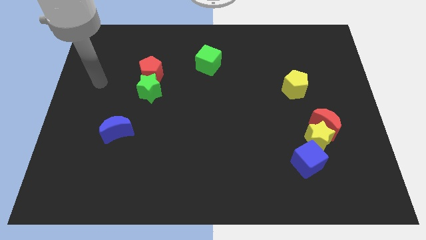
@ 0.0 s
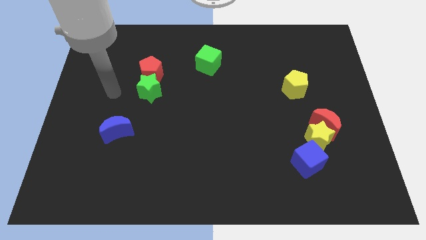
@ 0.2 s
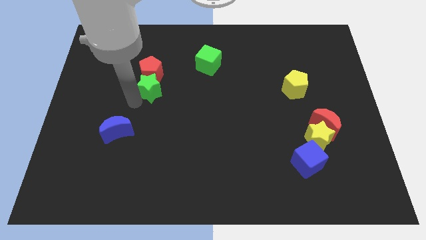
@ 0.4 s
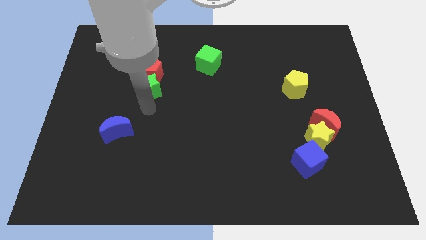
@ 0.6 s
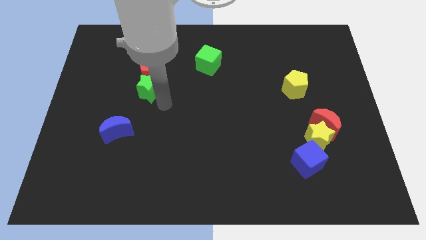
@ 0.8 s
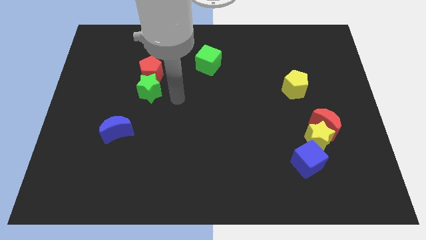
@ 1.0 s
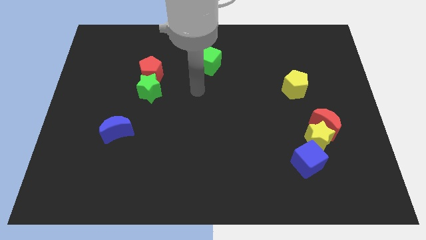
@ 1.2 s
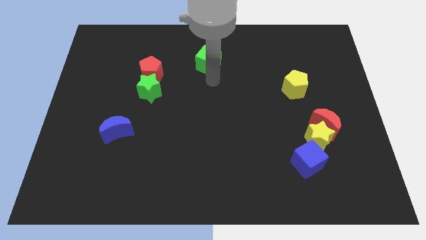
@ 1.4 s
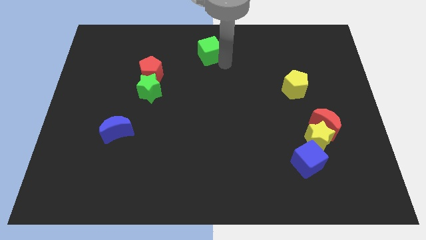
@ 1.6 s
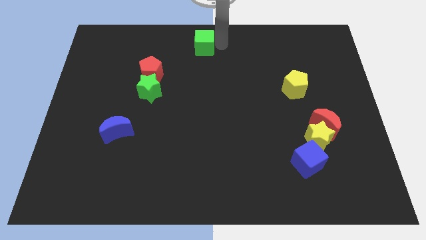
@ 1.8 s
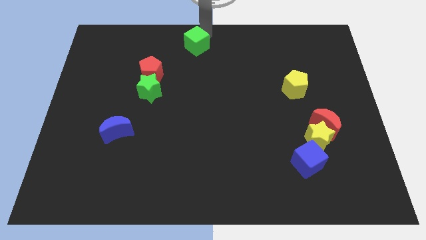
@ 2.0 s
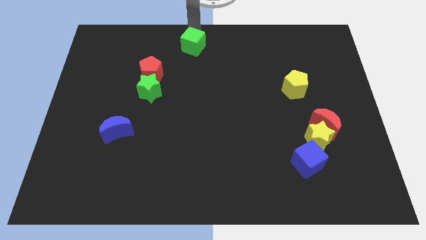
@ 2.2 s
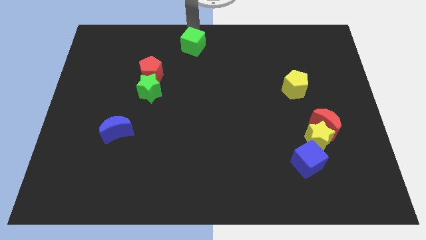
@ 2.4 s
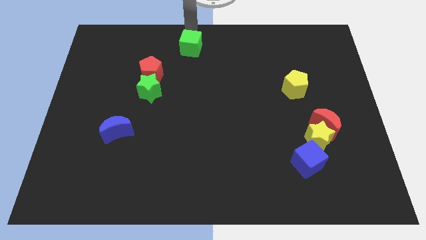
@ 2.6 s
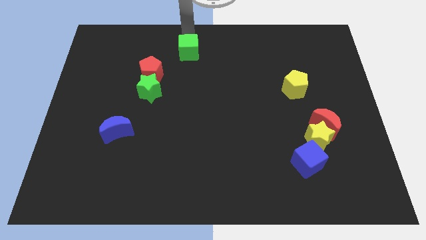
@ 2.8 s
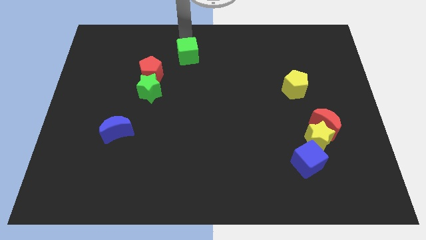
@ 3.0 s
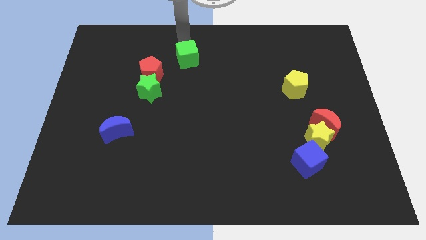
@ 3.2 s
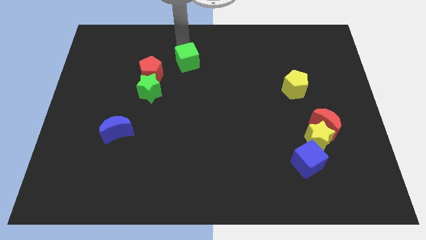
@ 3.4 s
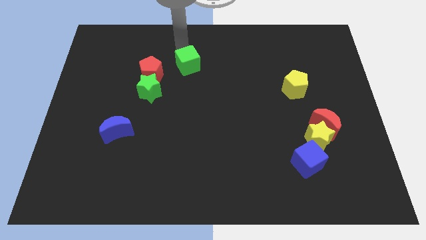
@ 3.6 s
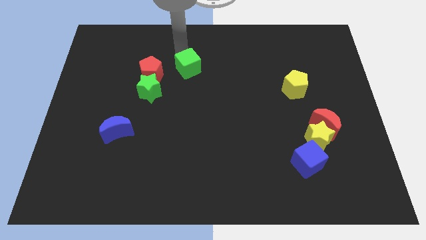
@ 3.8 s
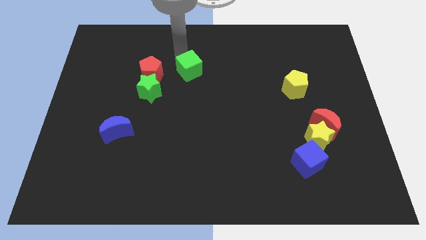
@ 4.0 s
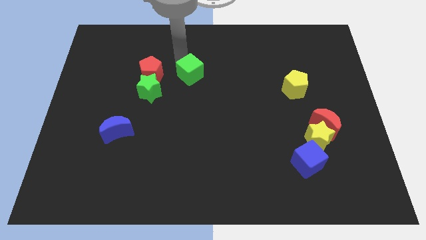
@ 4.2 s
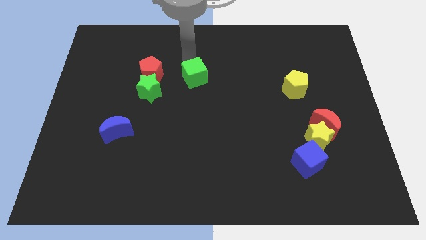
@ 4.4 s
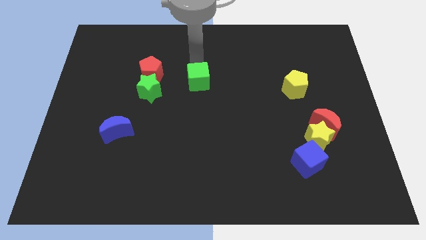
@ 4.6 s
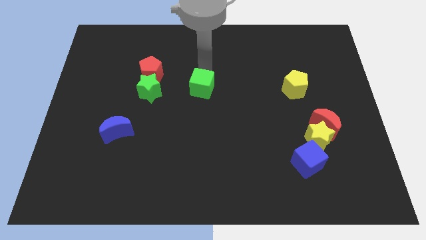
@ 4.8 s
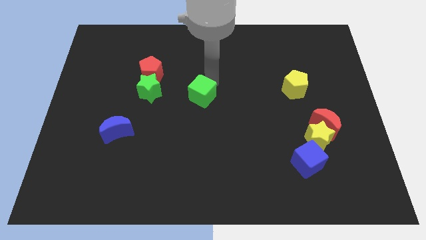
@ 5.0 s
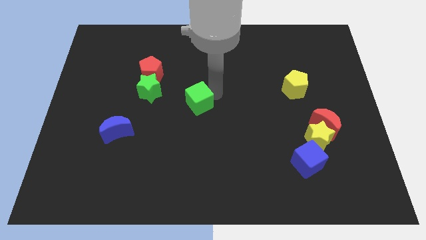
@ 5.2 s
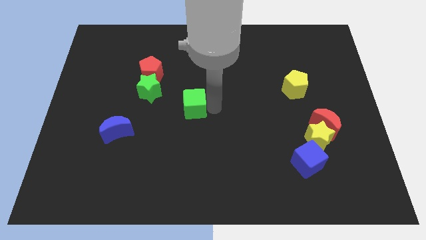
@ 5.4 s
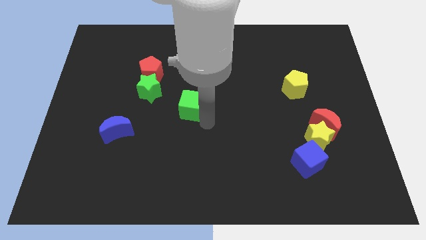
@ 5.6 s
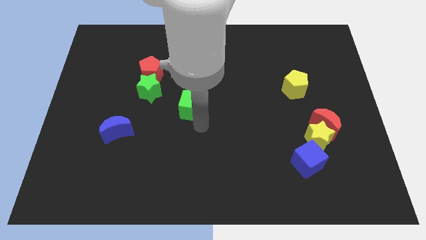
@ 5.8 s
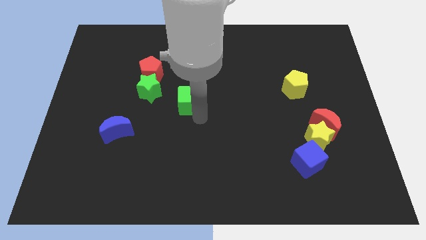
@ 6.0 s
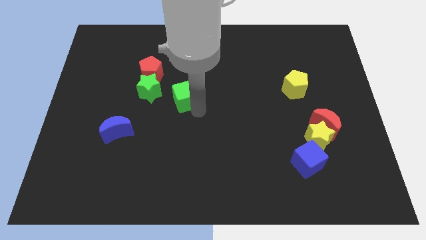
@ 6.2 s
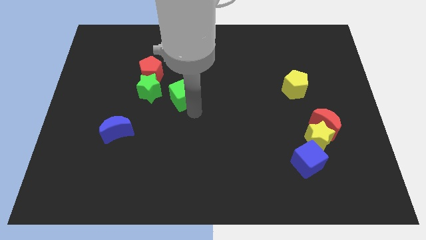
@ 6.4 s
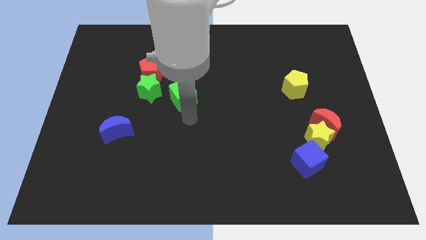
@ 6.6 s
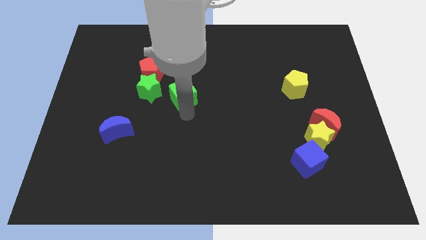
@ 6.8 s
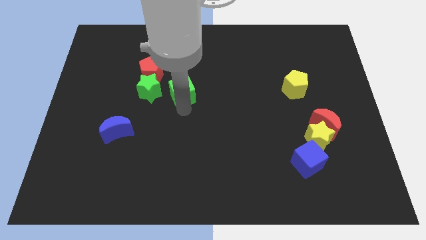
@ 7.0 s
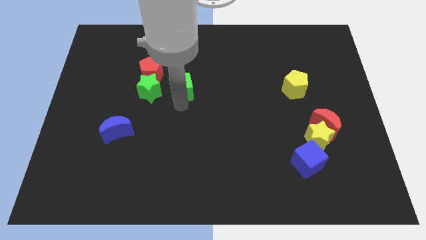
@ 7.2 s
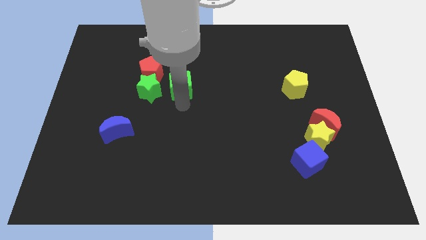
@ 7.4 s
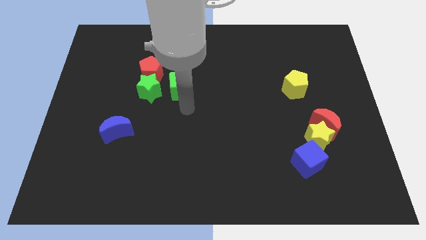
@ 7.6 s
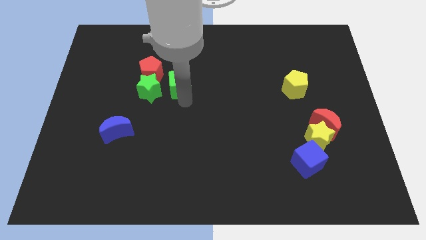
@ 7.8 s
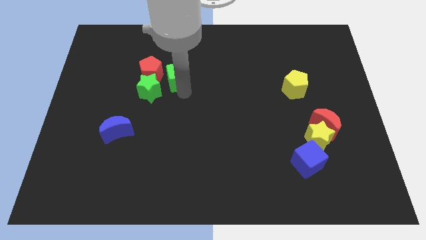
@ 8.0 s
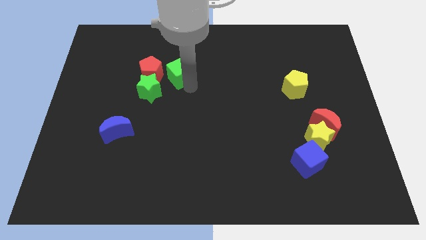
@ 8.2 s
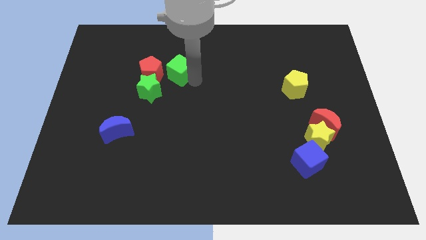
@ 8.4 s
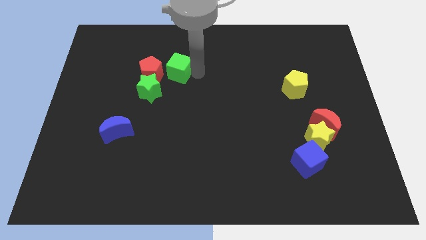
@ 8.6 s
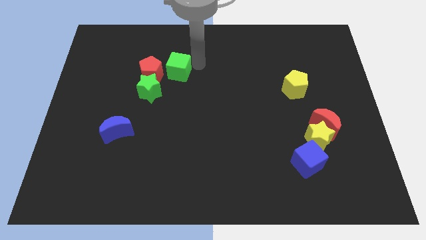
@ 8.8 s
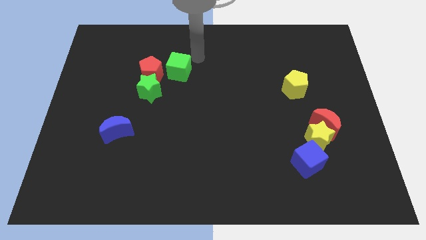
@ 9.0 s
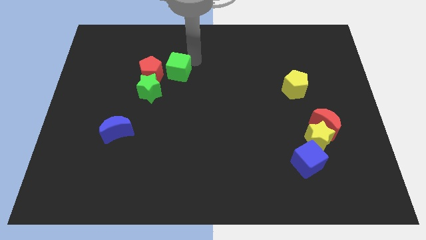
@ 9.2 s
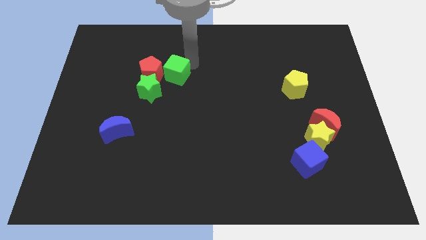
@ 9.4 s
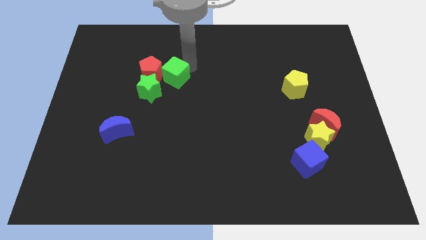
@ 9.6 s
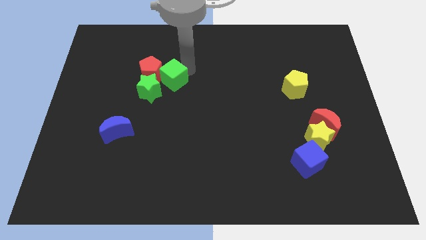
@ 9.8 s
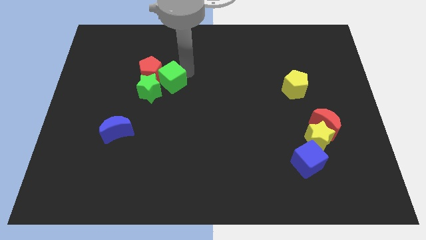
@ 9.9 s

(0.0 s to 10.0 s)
slide the green cube to the green star

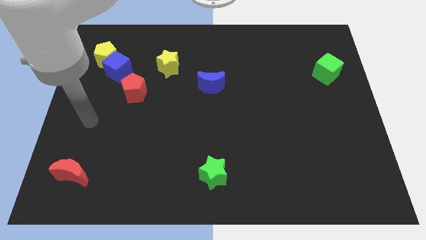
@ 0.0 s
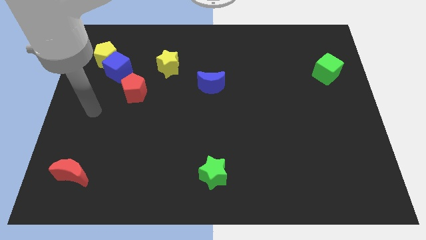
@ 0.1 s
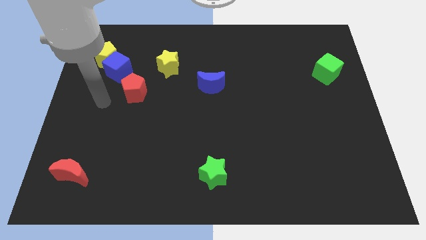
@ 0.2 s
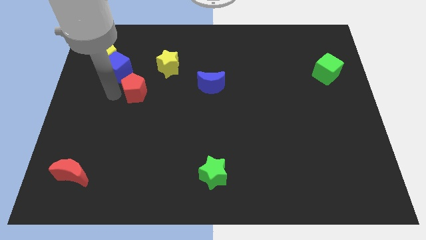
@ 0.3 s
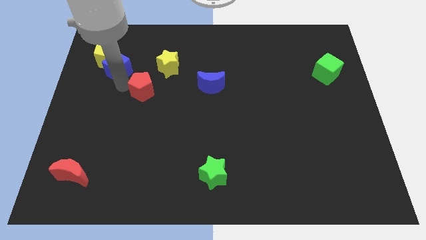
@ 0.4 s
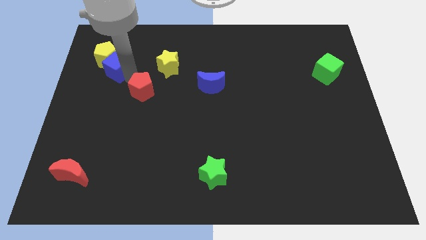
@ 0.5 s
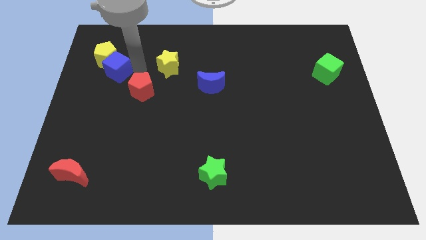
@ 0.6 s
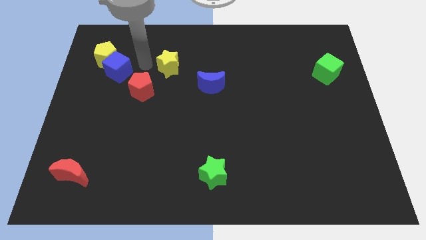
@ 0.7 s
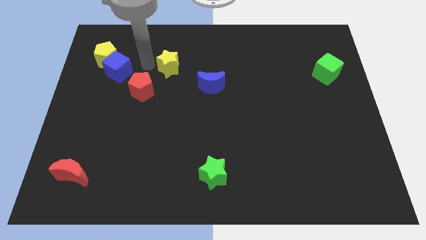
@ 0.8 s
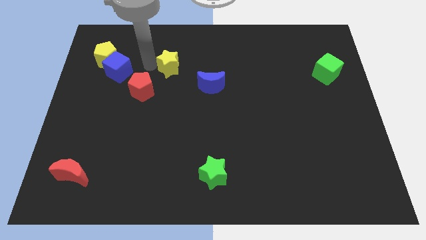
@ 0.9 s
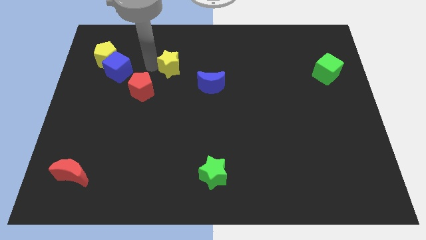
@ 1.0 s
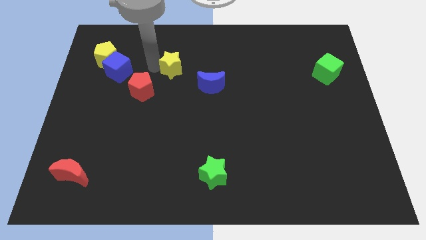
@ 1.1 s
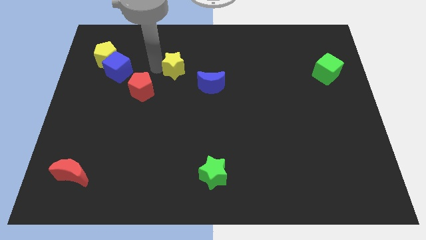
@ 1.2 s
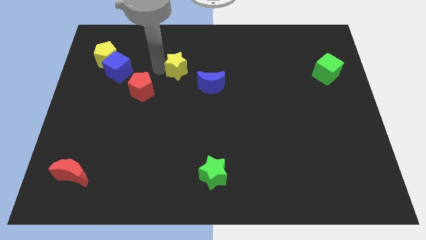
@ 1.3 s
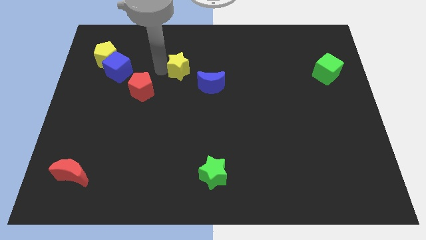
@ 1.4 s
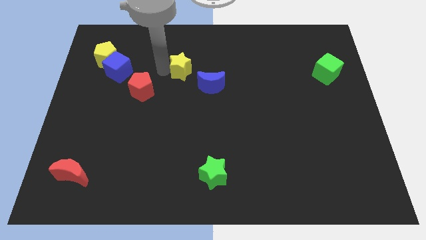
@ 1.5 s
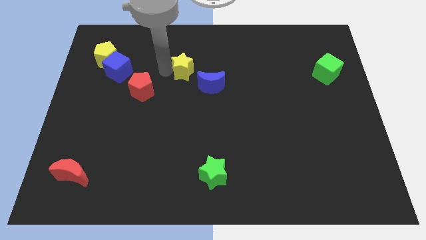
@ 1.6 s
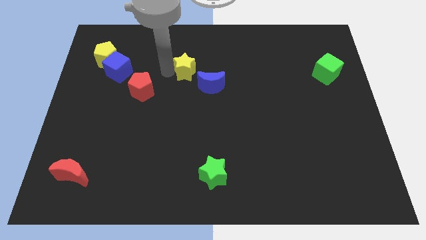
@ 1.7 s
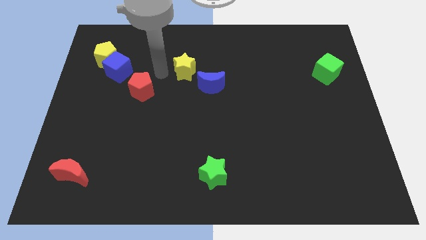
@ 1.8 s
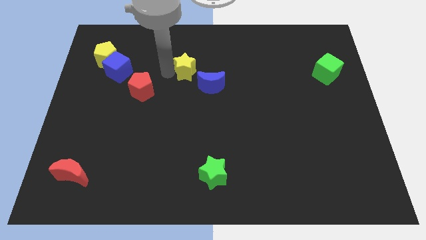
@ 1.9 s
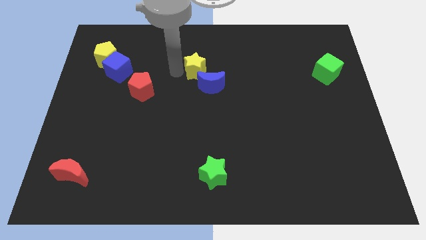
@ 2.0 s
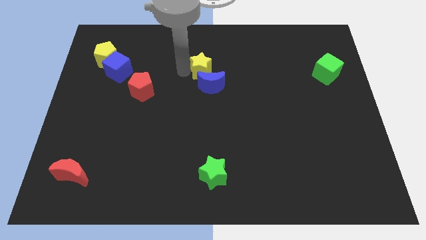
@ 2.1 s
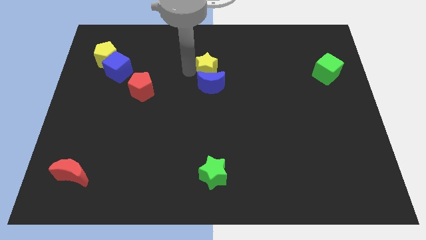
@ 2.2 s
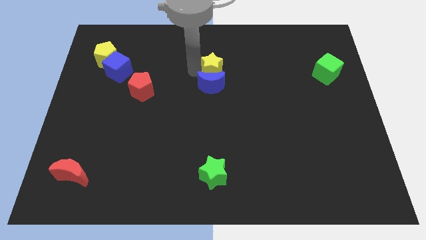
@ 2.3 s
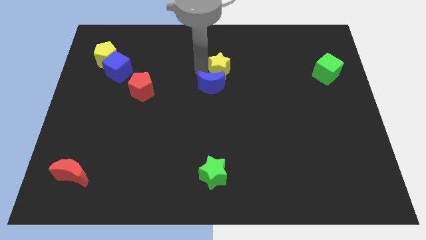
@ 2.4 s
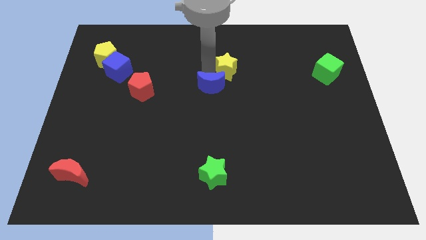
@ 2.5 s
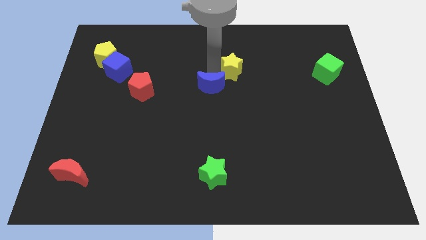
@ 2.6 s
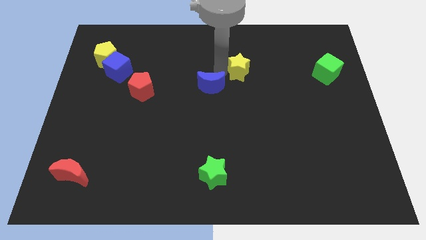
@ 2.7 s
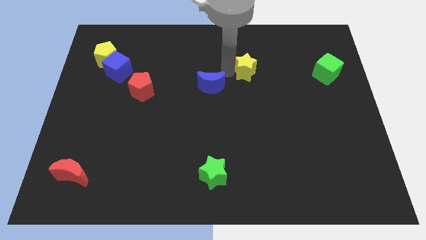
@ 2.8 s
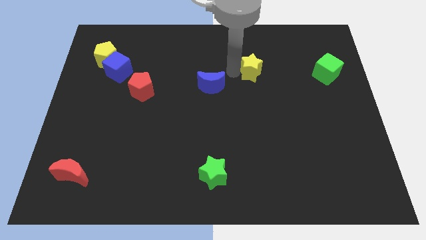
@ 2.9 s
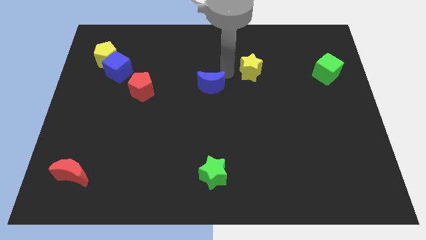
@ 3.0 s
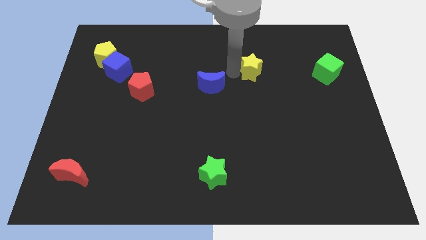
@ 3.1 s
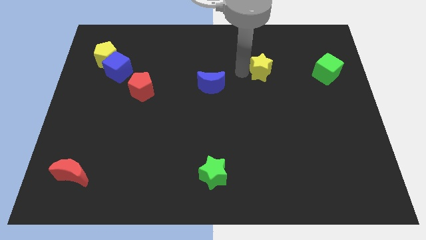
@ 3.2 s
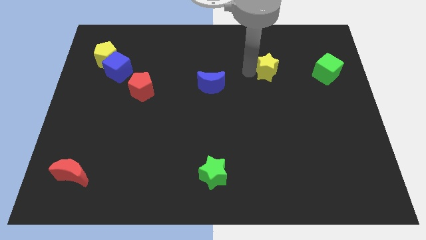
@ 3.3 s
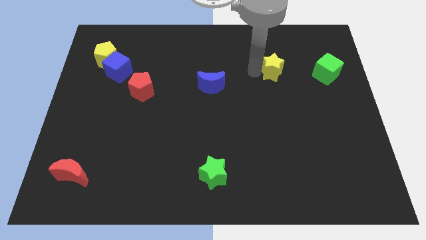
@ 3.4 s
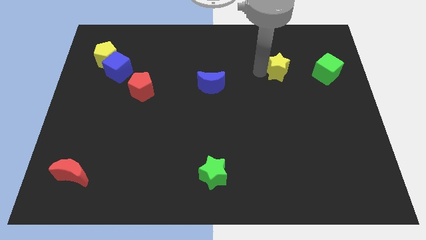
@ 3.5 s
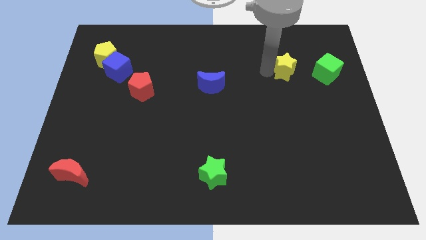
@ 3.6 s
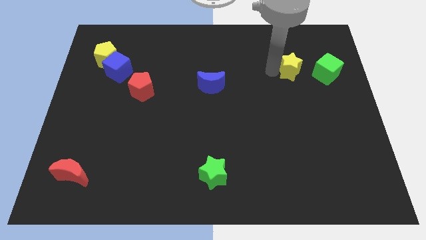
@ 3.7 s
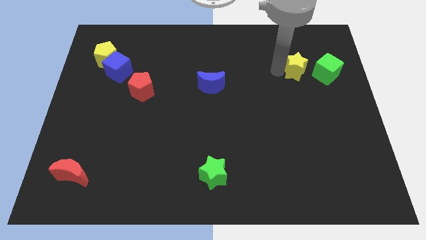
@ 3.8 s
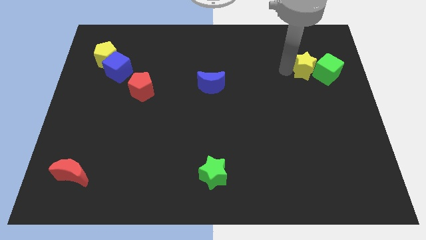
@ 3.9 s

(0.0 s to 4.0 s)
push the yellow star towards the green cube
